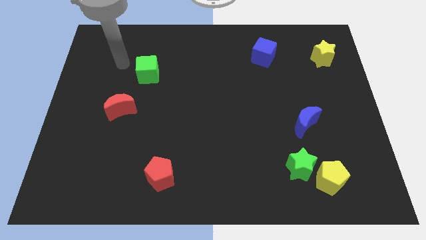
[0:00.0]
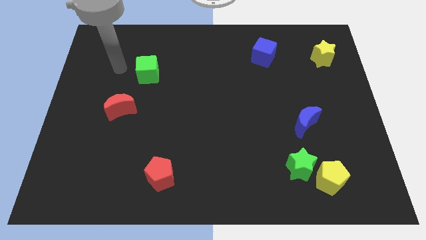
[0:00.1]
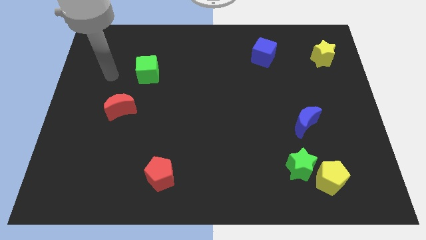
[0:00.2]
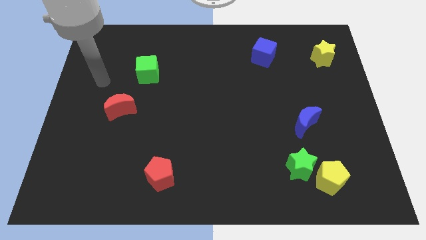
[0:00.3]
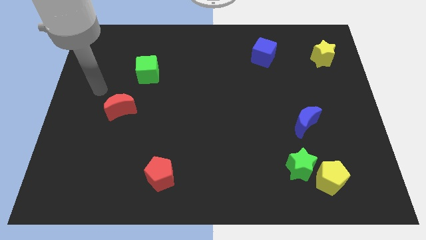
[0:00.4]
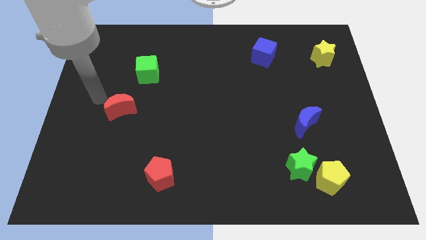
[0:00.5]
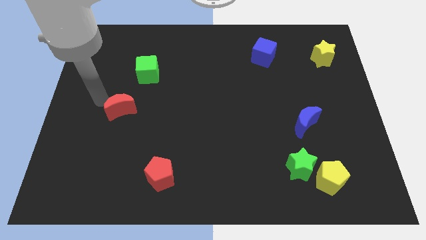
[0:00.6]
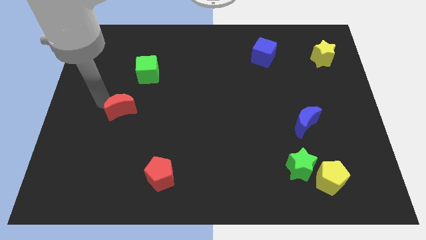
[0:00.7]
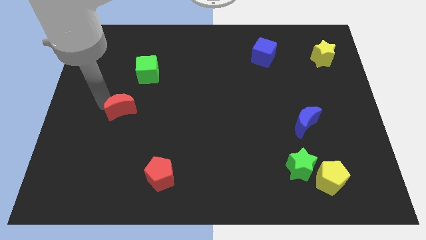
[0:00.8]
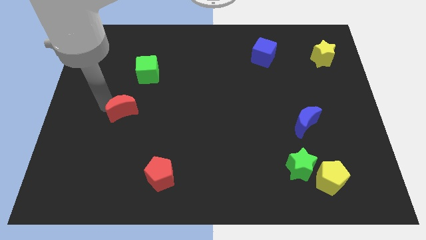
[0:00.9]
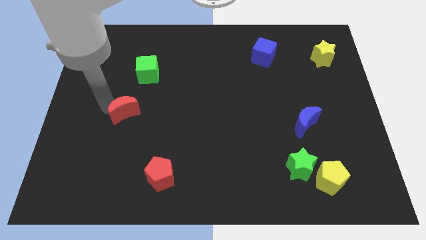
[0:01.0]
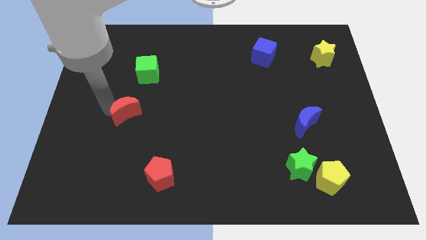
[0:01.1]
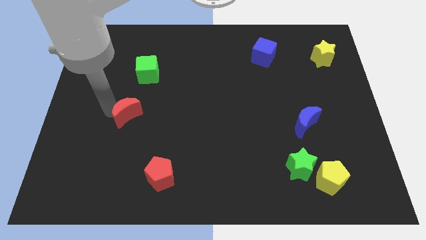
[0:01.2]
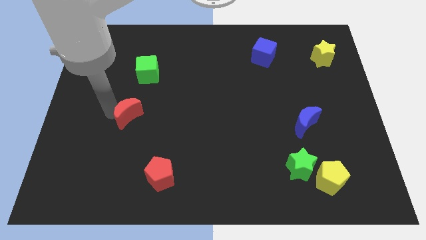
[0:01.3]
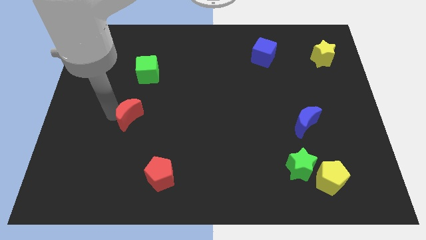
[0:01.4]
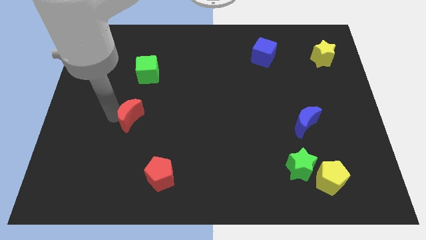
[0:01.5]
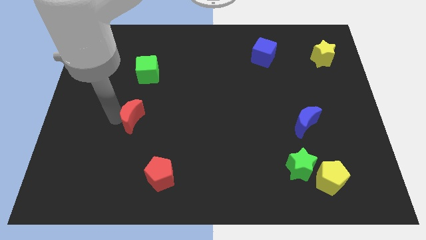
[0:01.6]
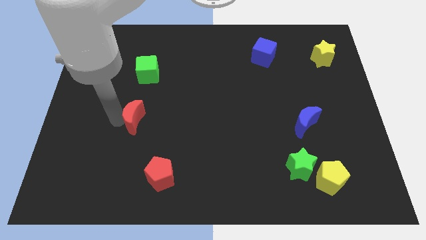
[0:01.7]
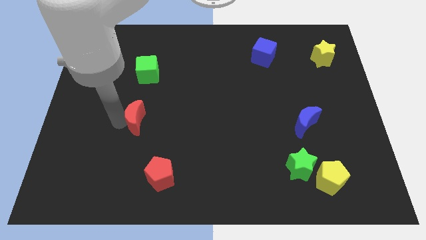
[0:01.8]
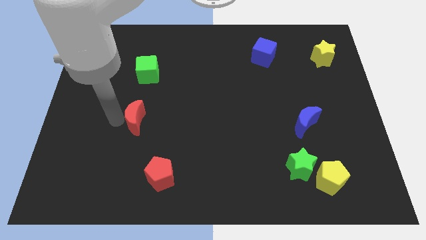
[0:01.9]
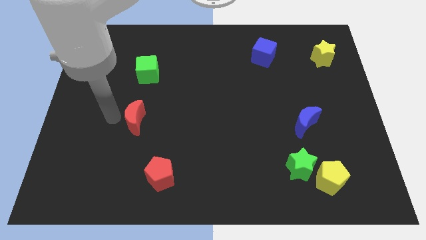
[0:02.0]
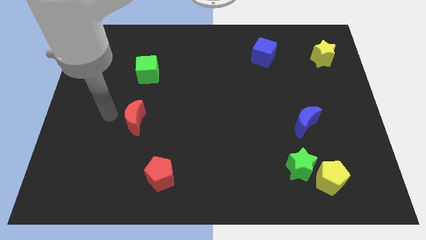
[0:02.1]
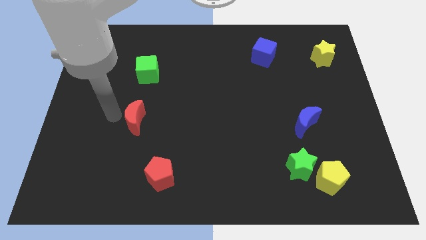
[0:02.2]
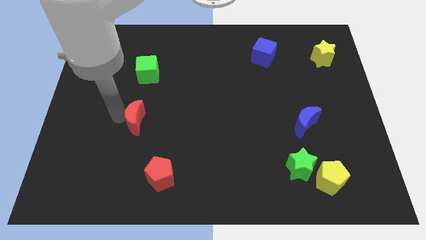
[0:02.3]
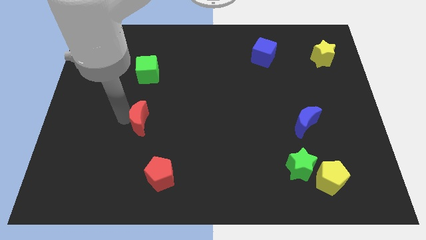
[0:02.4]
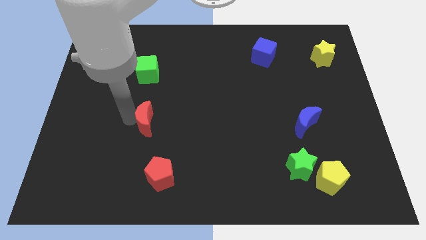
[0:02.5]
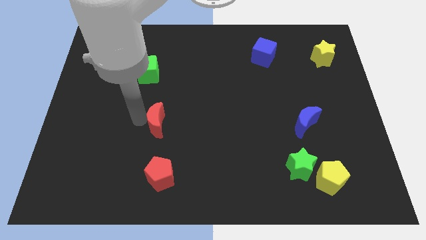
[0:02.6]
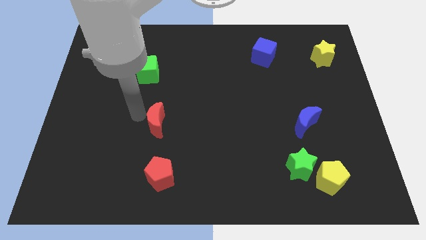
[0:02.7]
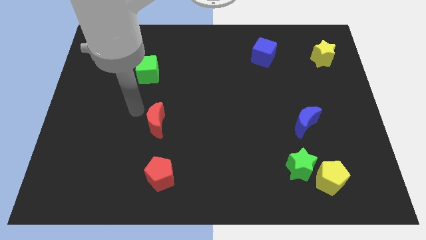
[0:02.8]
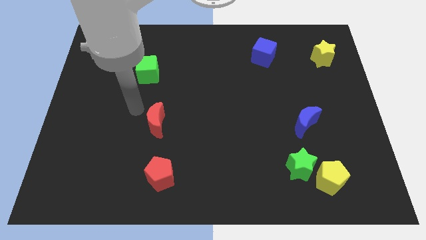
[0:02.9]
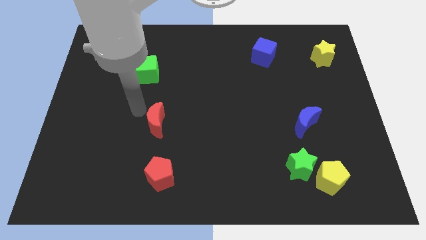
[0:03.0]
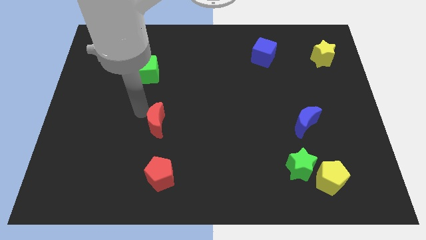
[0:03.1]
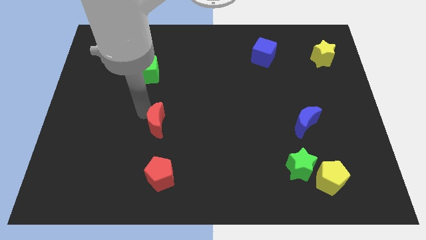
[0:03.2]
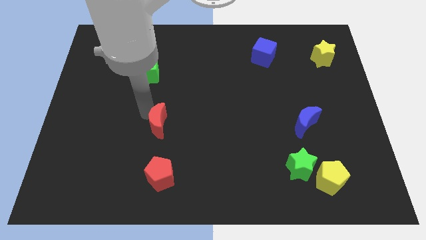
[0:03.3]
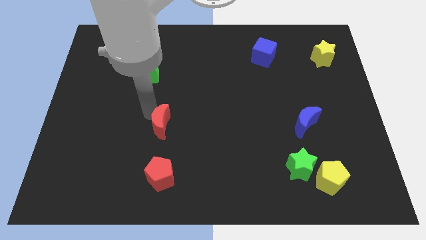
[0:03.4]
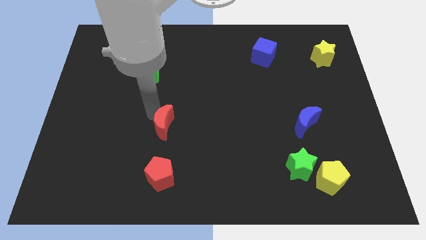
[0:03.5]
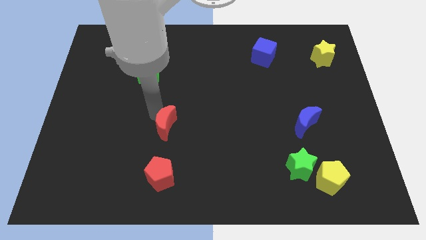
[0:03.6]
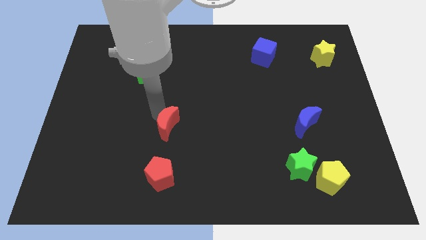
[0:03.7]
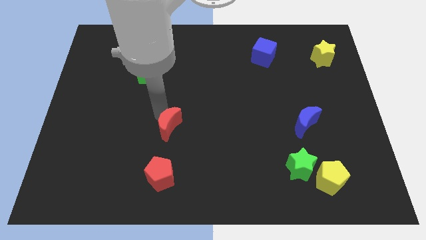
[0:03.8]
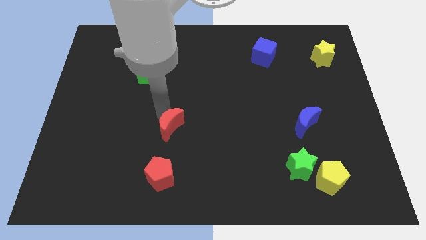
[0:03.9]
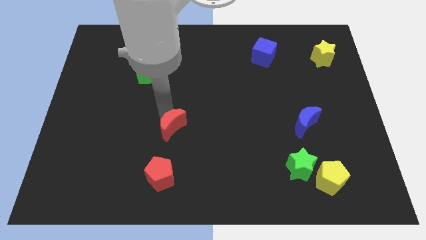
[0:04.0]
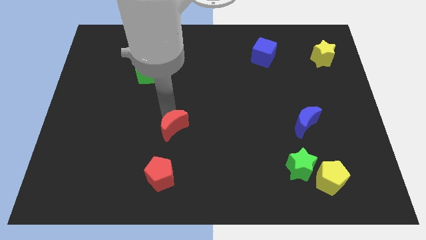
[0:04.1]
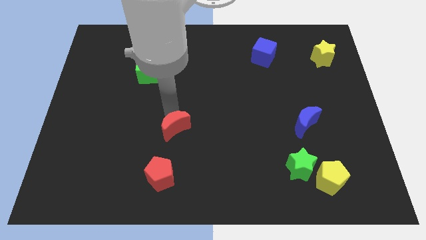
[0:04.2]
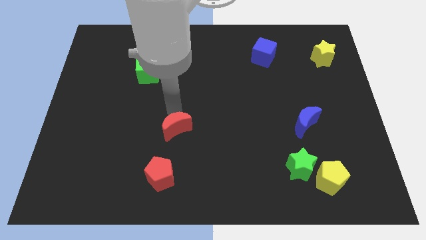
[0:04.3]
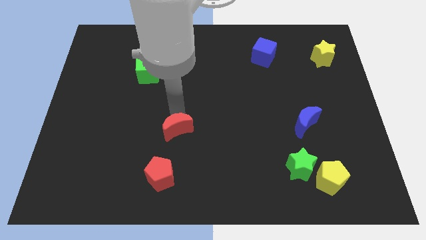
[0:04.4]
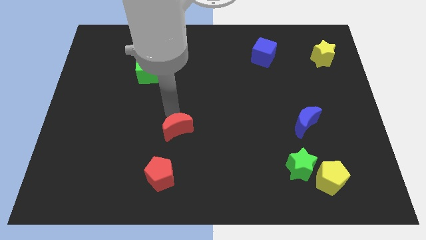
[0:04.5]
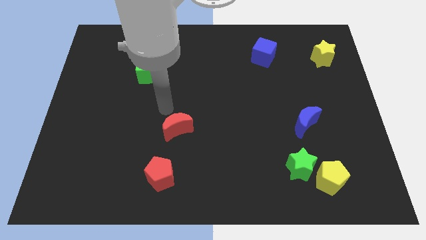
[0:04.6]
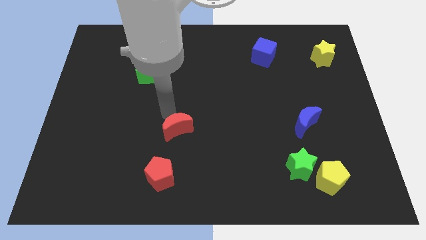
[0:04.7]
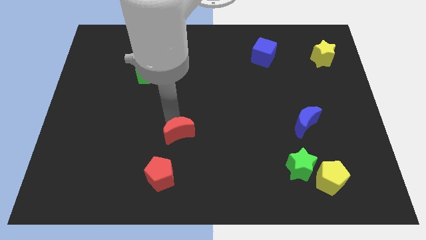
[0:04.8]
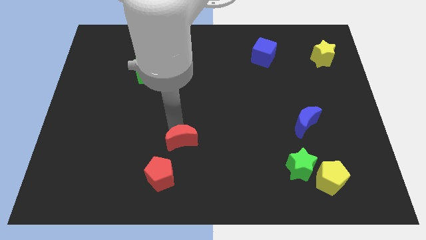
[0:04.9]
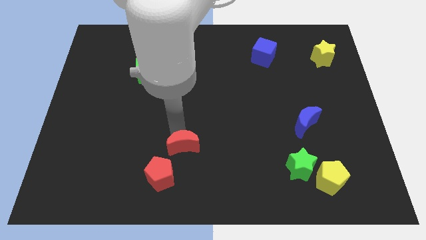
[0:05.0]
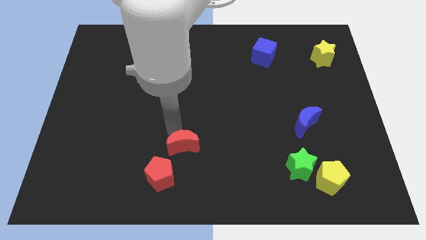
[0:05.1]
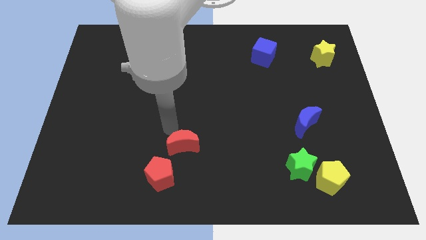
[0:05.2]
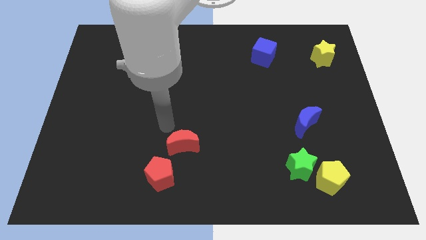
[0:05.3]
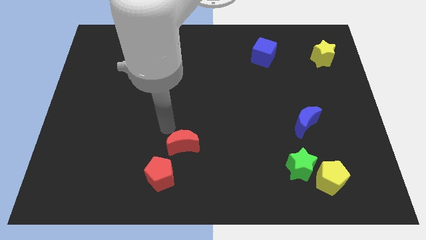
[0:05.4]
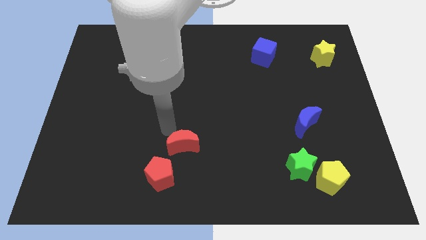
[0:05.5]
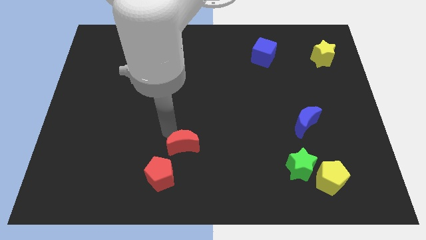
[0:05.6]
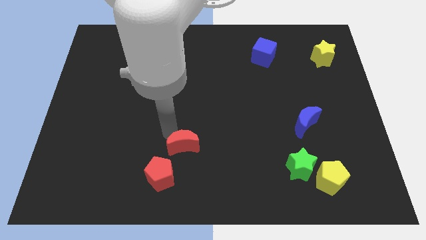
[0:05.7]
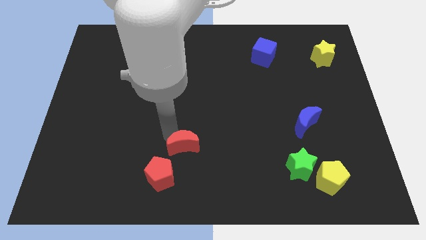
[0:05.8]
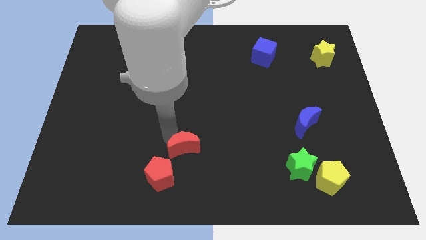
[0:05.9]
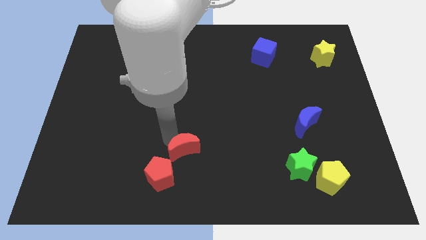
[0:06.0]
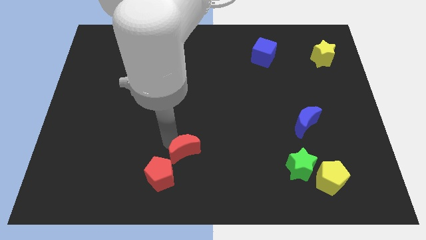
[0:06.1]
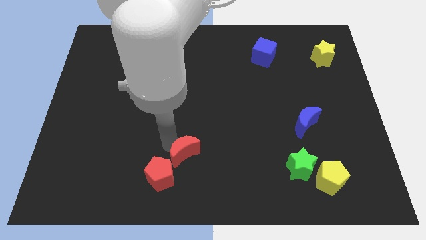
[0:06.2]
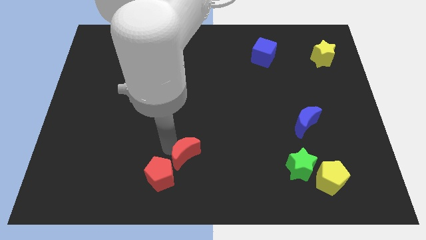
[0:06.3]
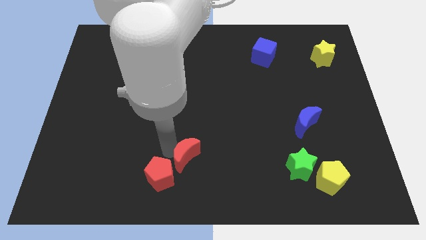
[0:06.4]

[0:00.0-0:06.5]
push the red moon right of the red pentagon

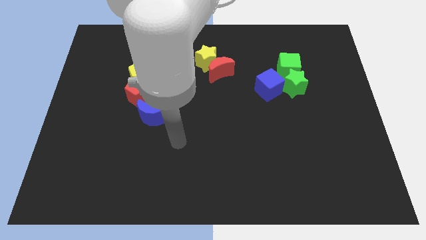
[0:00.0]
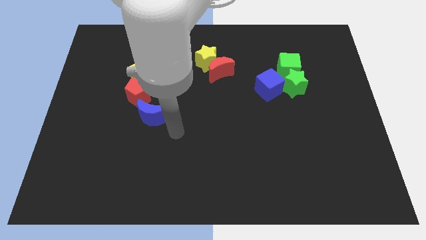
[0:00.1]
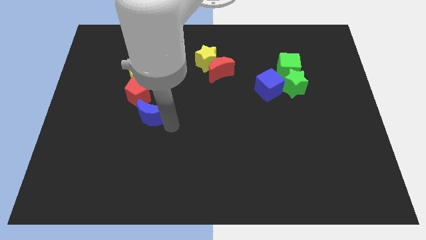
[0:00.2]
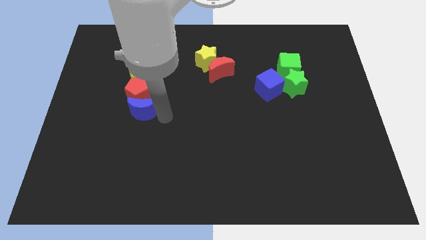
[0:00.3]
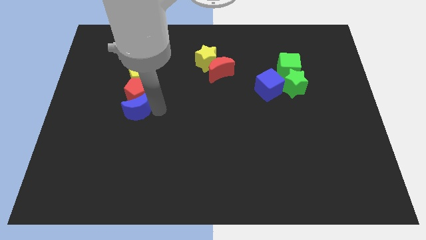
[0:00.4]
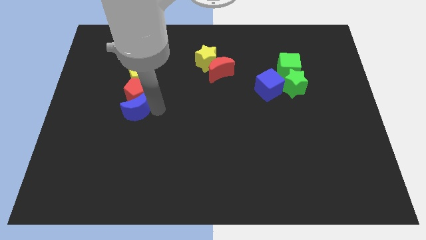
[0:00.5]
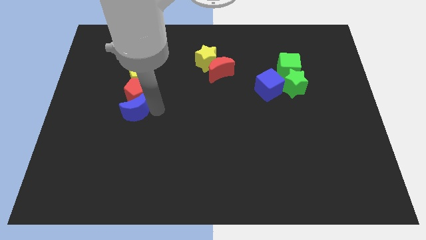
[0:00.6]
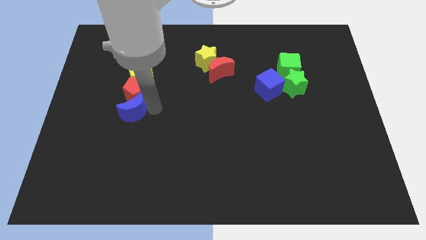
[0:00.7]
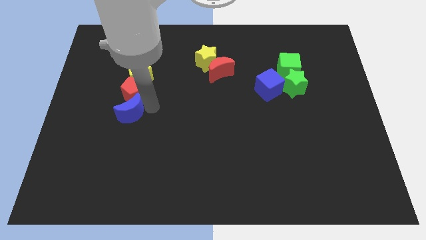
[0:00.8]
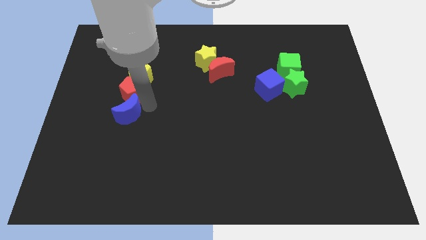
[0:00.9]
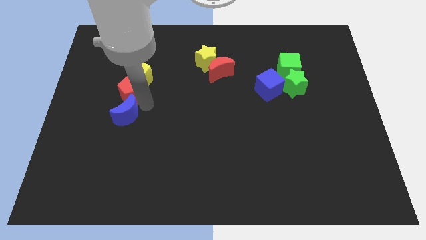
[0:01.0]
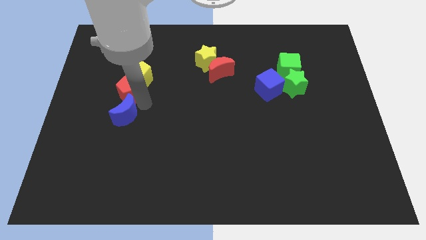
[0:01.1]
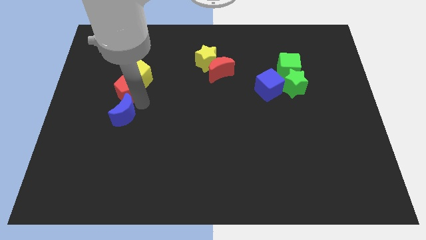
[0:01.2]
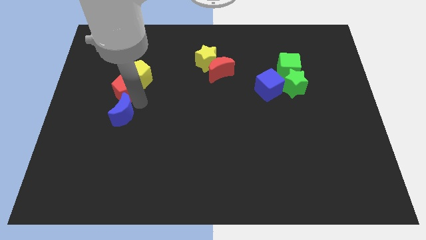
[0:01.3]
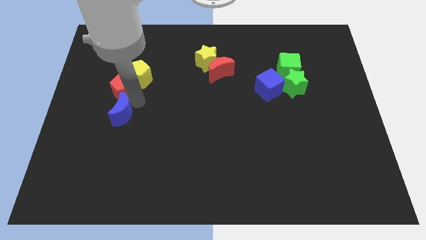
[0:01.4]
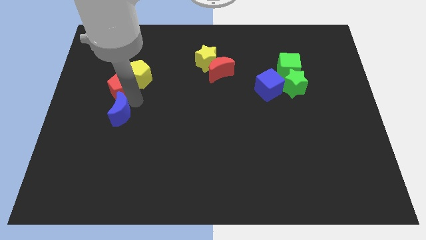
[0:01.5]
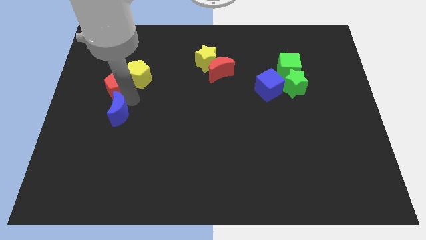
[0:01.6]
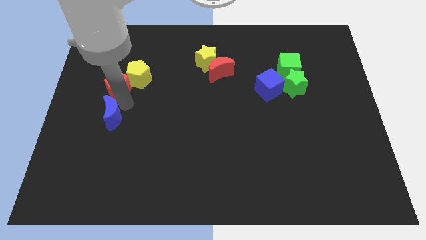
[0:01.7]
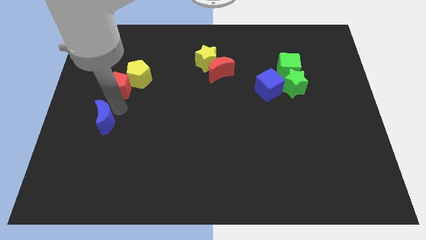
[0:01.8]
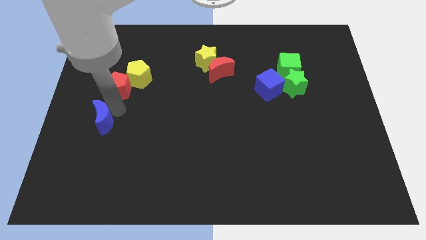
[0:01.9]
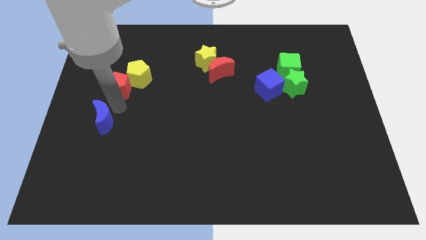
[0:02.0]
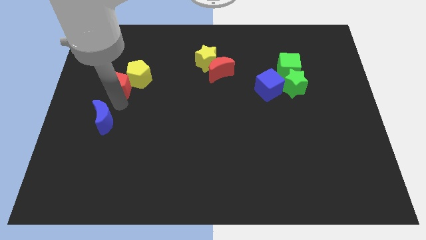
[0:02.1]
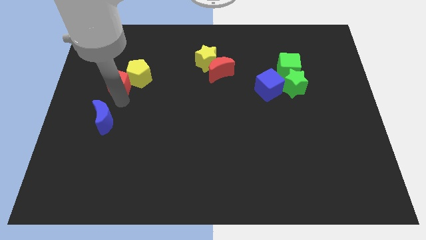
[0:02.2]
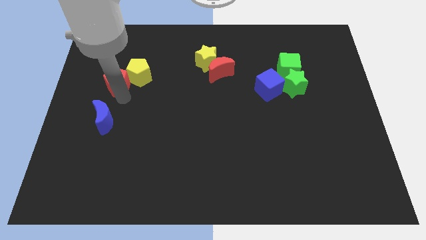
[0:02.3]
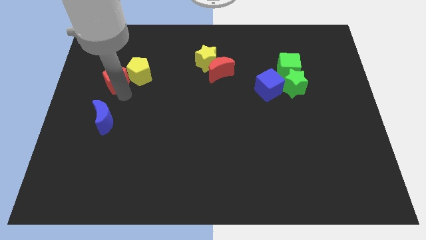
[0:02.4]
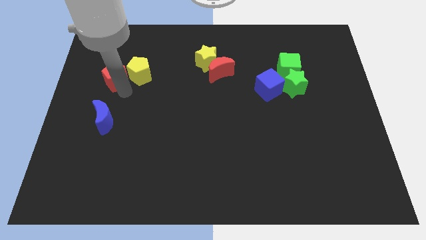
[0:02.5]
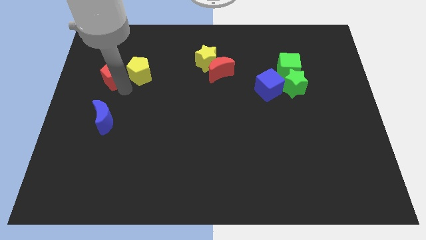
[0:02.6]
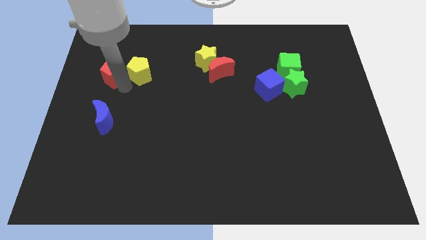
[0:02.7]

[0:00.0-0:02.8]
slide the red pentagon to the top left side of the yellow pentagon
